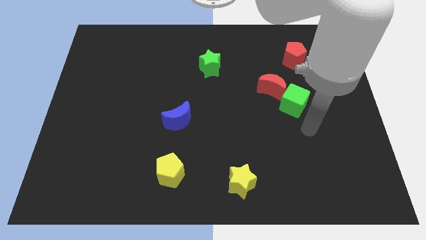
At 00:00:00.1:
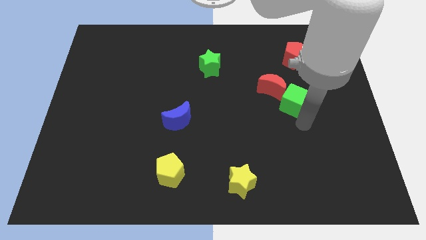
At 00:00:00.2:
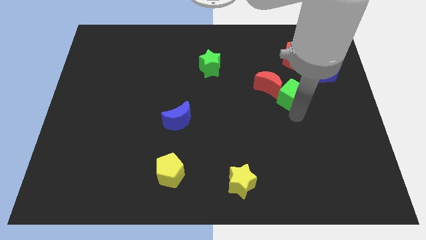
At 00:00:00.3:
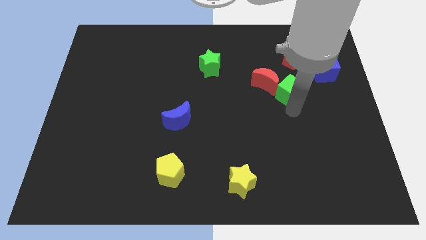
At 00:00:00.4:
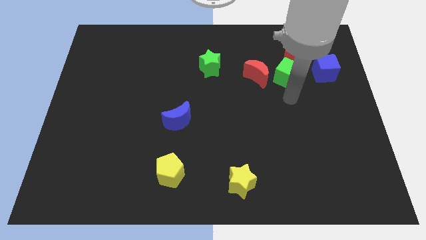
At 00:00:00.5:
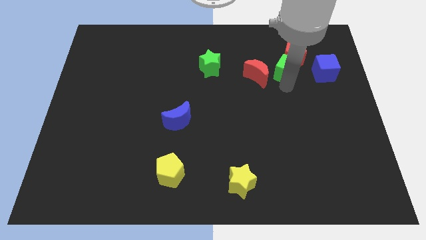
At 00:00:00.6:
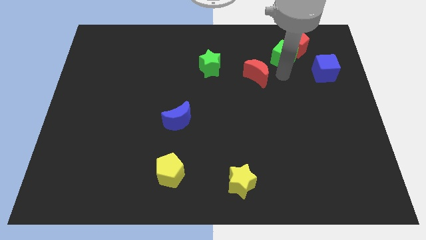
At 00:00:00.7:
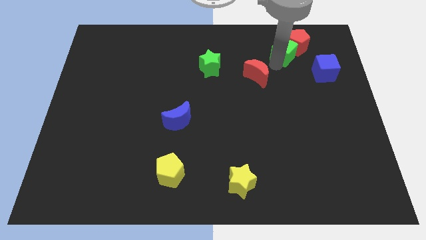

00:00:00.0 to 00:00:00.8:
pull the red moon apart from the green cube

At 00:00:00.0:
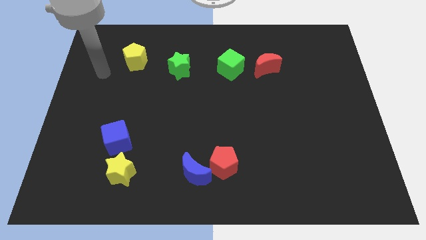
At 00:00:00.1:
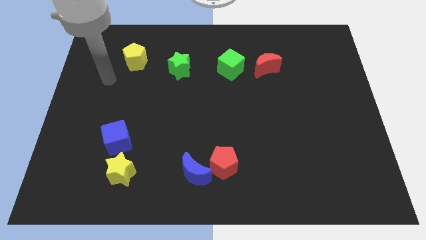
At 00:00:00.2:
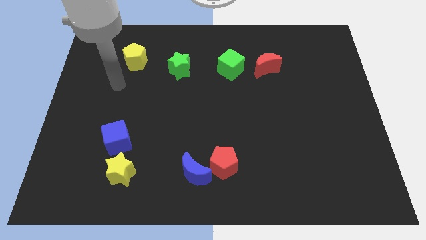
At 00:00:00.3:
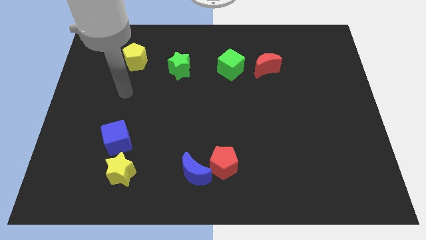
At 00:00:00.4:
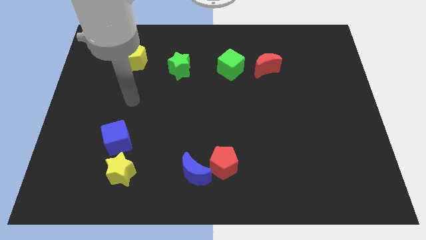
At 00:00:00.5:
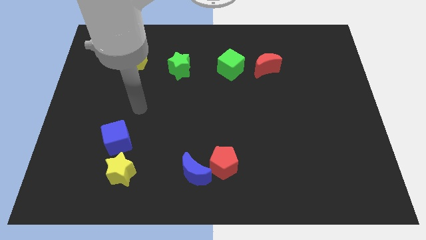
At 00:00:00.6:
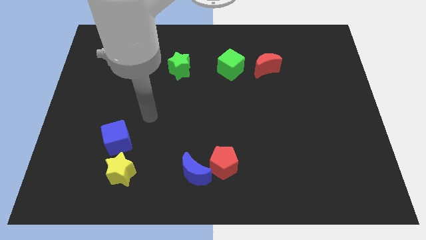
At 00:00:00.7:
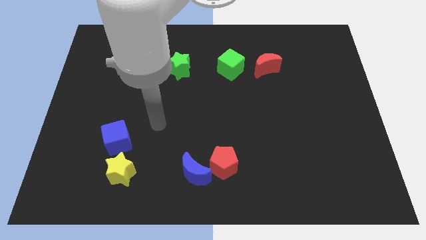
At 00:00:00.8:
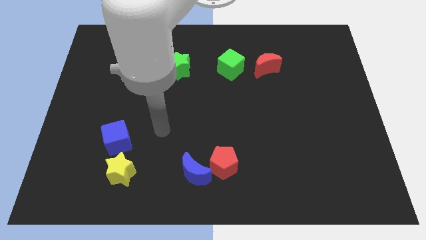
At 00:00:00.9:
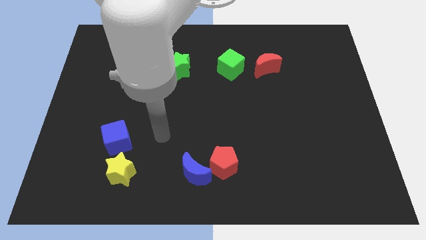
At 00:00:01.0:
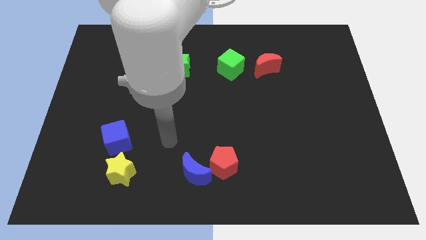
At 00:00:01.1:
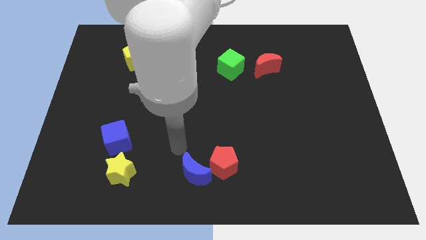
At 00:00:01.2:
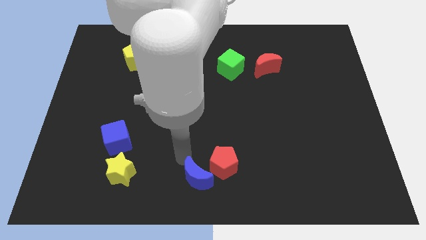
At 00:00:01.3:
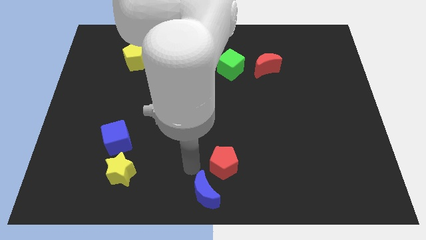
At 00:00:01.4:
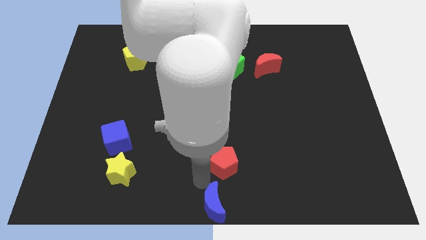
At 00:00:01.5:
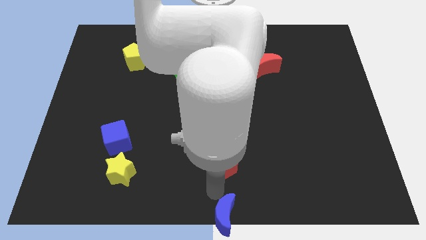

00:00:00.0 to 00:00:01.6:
pull the red pentagon apart from the blue moon

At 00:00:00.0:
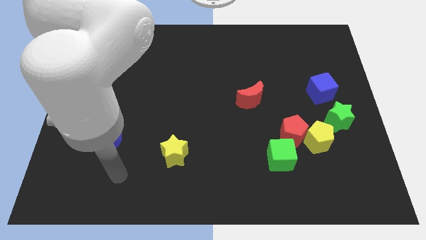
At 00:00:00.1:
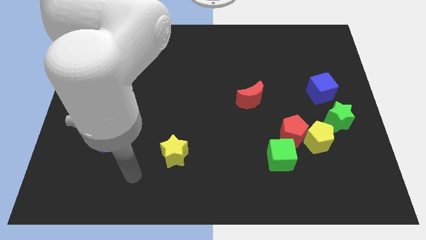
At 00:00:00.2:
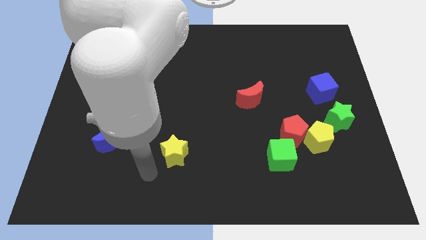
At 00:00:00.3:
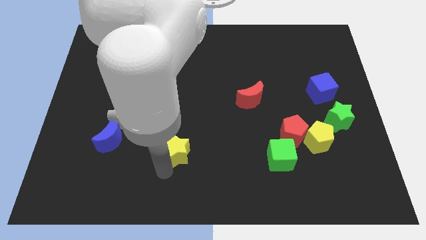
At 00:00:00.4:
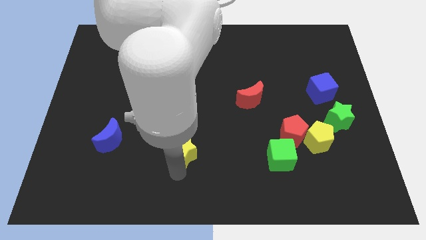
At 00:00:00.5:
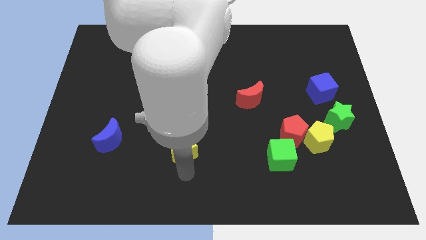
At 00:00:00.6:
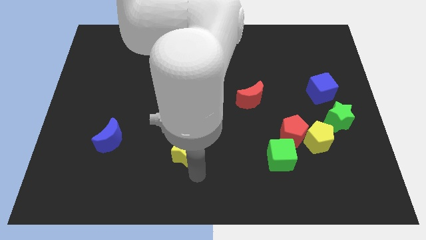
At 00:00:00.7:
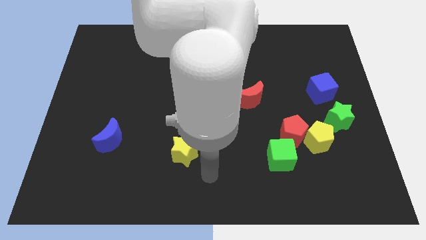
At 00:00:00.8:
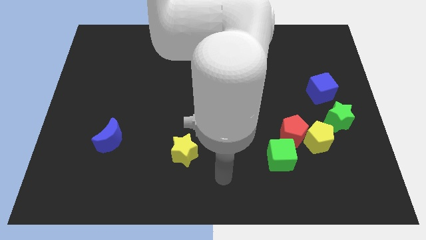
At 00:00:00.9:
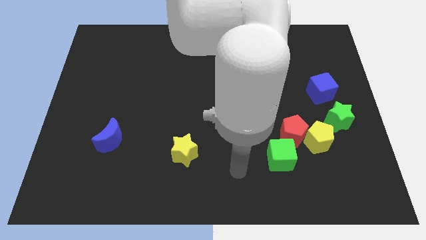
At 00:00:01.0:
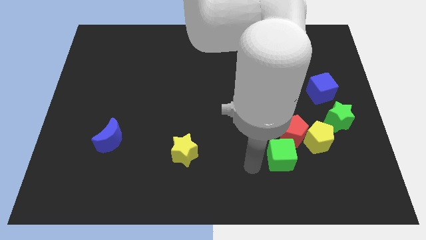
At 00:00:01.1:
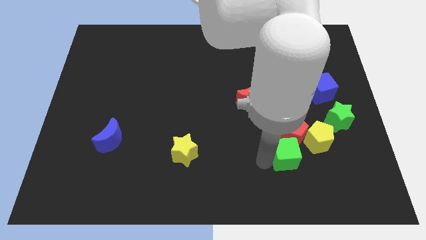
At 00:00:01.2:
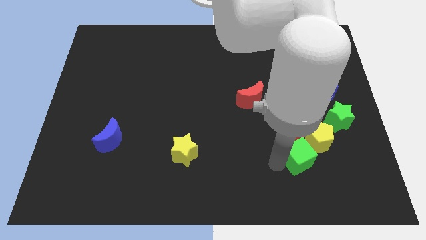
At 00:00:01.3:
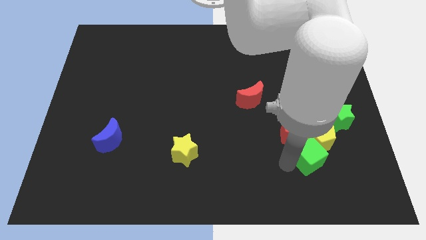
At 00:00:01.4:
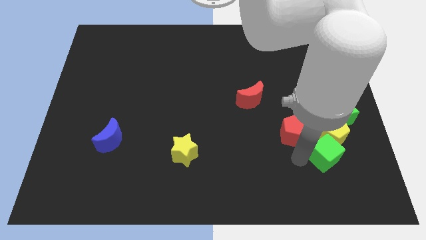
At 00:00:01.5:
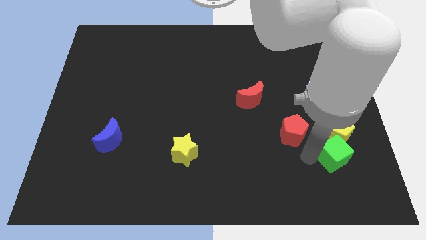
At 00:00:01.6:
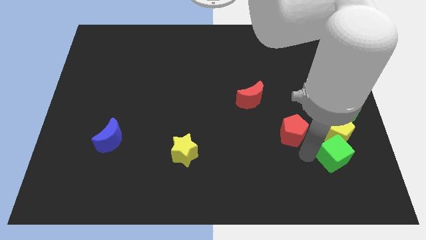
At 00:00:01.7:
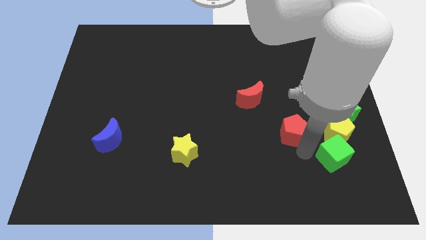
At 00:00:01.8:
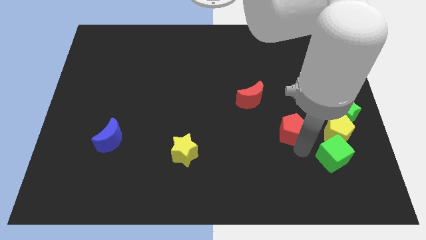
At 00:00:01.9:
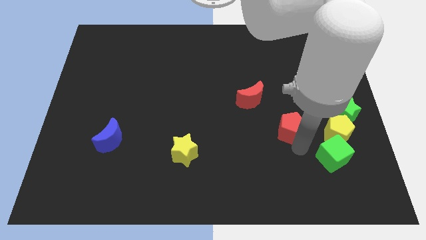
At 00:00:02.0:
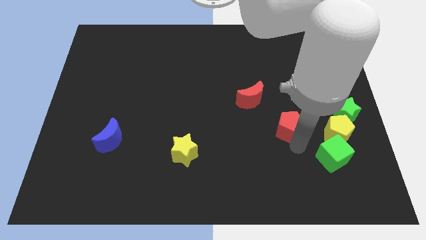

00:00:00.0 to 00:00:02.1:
move the red pentagon away from the yellow pentagon and green cube

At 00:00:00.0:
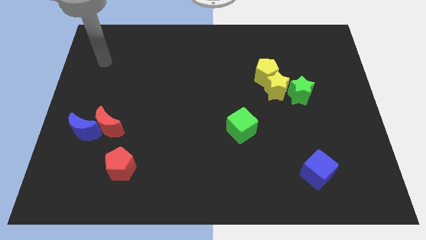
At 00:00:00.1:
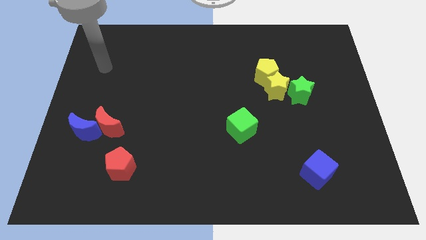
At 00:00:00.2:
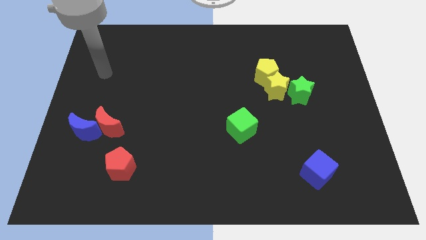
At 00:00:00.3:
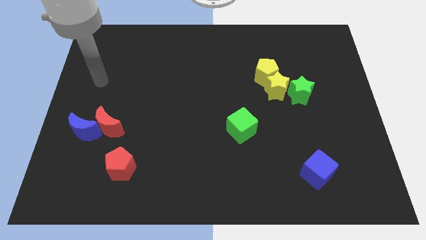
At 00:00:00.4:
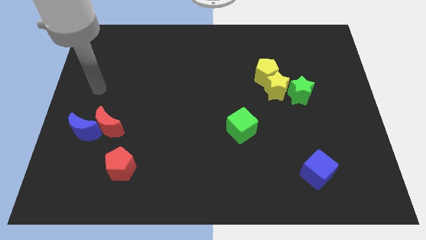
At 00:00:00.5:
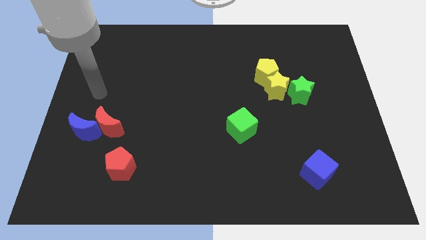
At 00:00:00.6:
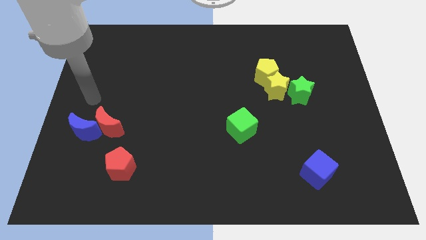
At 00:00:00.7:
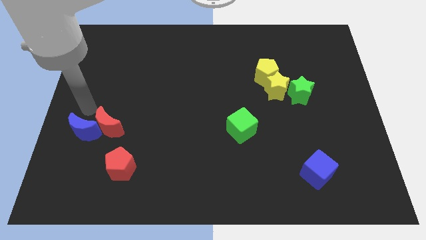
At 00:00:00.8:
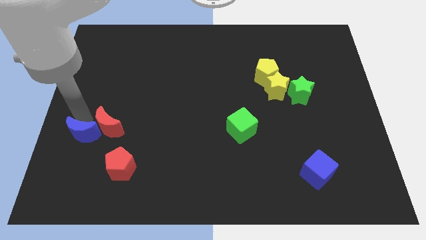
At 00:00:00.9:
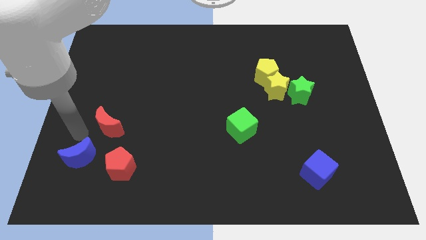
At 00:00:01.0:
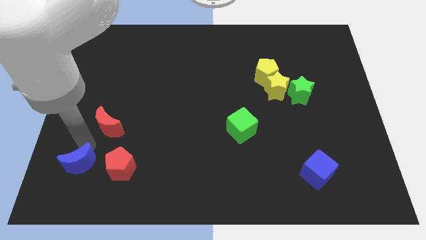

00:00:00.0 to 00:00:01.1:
separate the red moon from the blue moon

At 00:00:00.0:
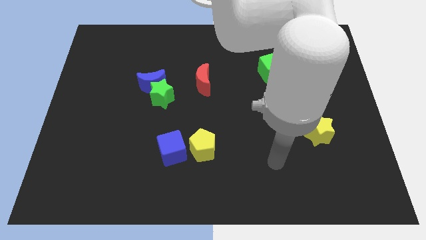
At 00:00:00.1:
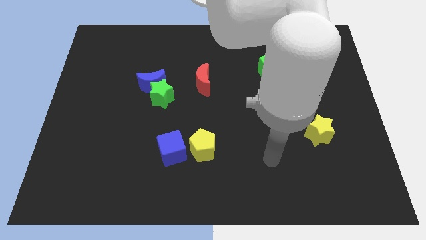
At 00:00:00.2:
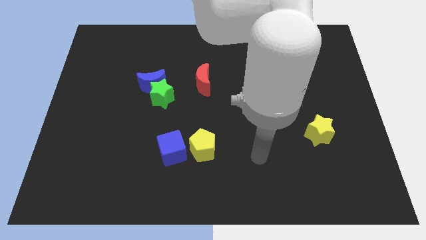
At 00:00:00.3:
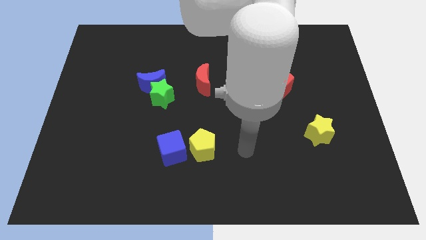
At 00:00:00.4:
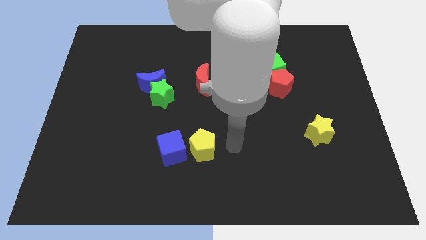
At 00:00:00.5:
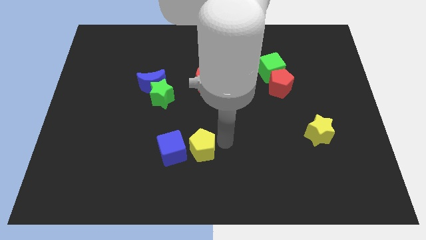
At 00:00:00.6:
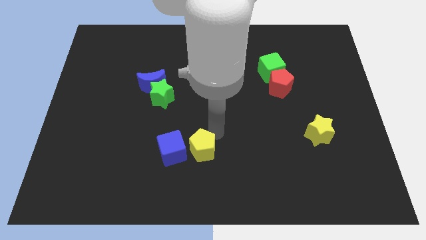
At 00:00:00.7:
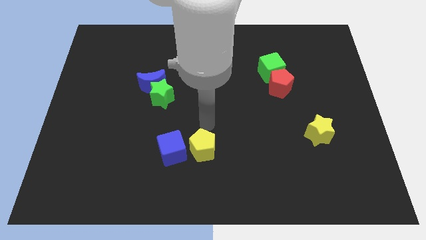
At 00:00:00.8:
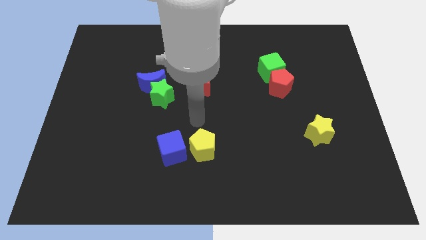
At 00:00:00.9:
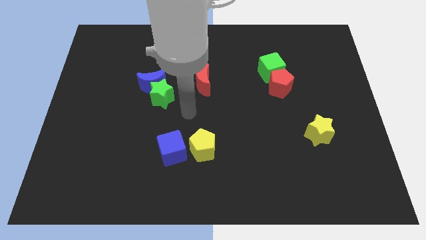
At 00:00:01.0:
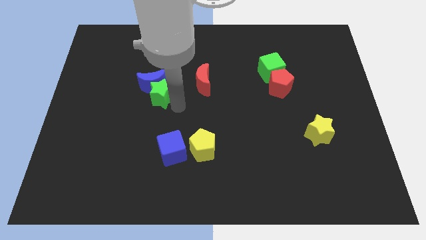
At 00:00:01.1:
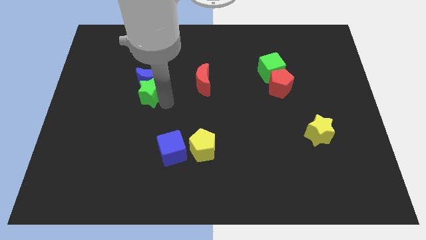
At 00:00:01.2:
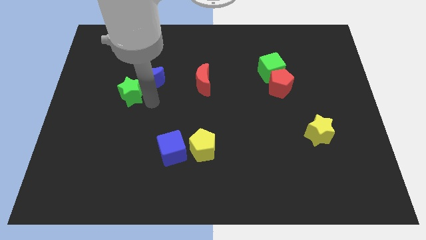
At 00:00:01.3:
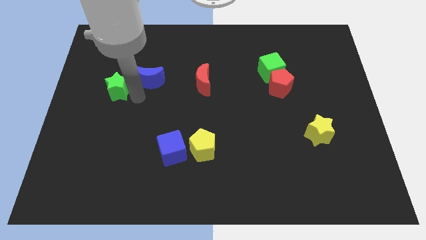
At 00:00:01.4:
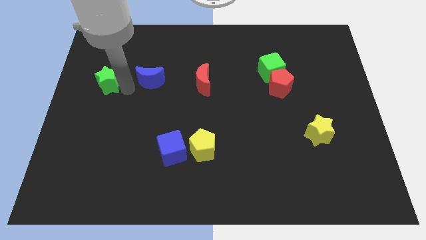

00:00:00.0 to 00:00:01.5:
separate the blue moon from the green star

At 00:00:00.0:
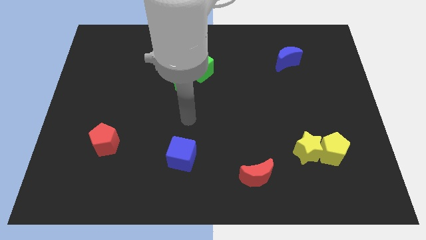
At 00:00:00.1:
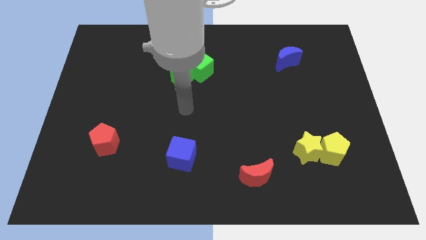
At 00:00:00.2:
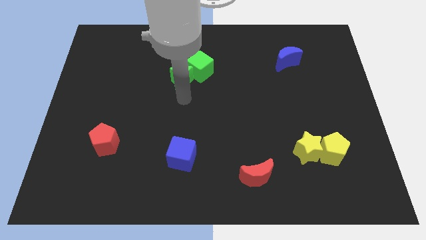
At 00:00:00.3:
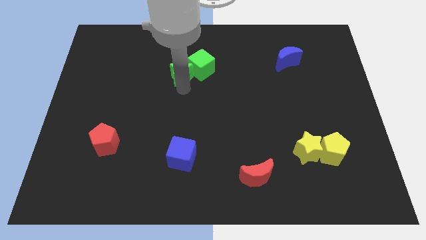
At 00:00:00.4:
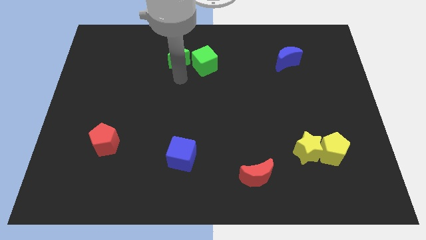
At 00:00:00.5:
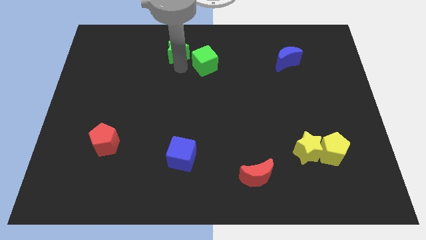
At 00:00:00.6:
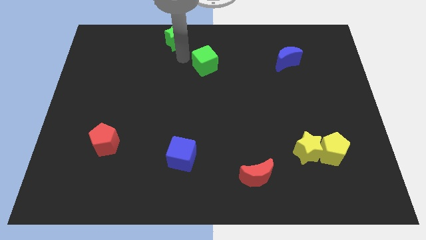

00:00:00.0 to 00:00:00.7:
pull the green cube apart from the green star

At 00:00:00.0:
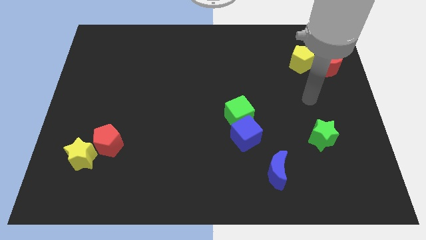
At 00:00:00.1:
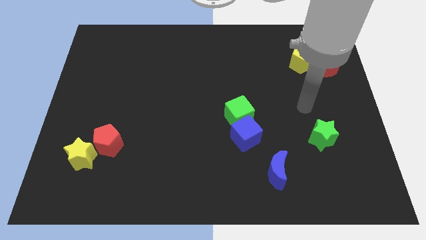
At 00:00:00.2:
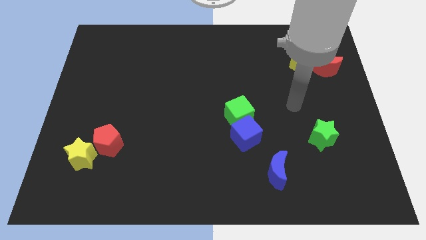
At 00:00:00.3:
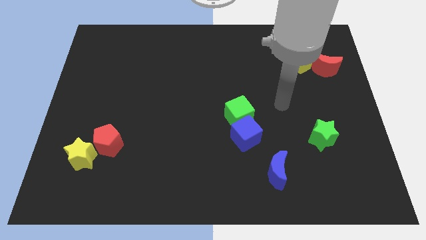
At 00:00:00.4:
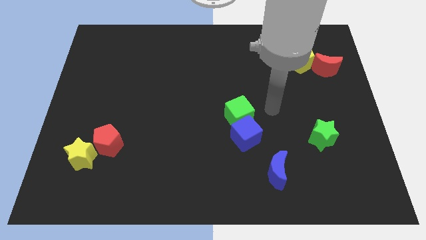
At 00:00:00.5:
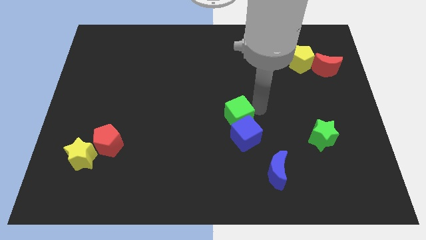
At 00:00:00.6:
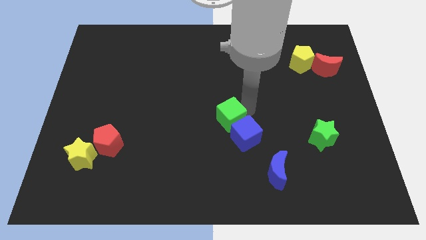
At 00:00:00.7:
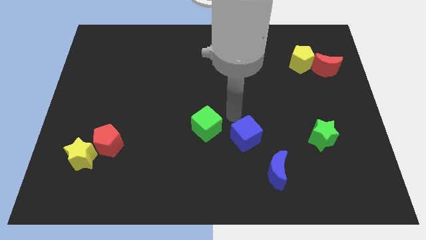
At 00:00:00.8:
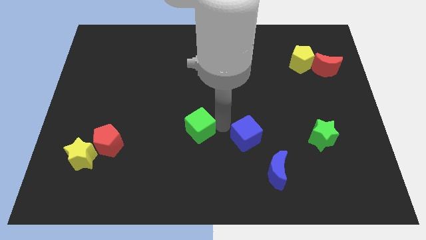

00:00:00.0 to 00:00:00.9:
move the blue cube away from the green cube

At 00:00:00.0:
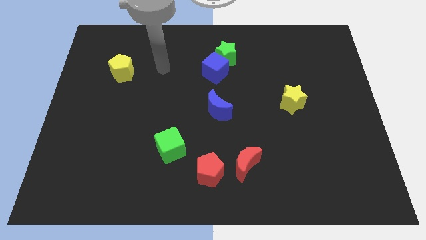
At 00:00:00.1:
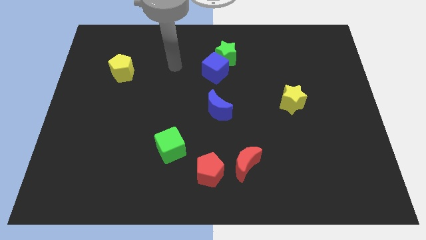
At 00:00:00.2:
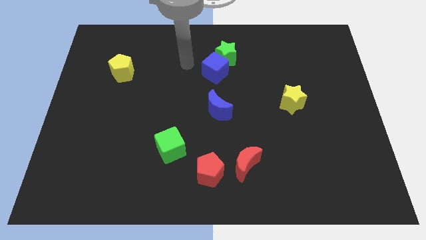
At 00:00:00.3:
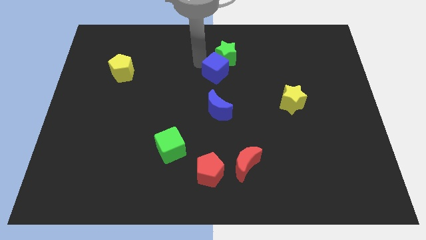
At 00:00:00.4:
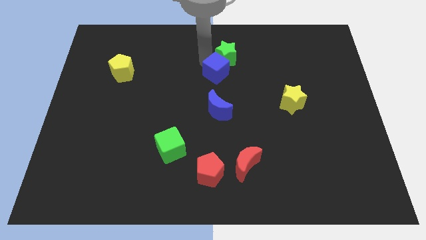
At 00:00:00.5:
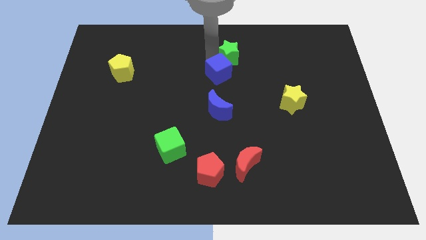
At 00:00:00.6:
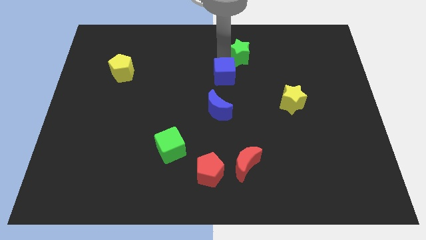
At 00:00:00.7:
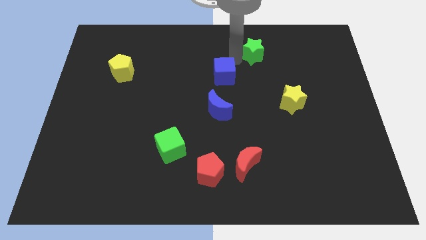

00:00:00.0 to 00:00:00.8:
pull the blue cube apart from the green star
